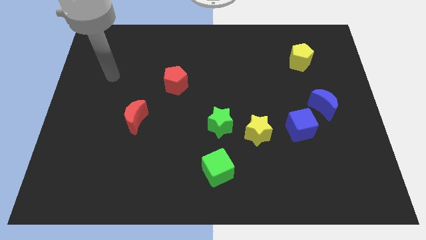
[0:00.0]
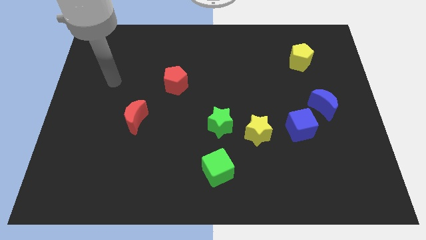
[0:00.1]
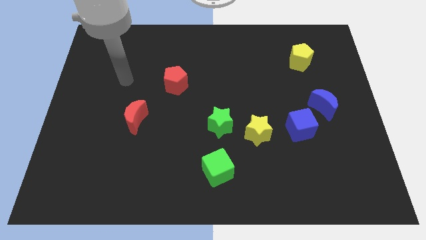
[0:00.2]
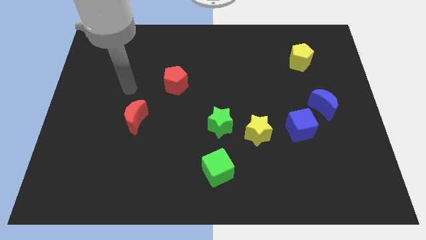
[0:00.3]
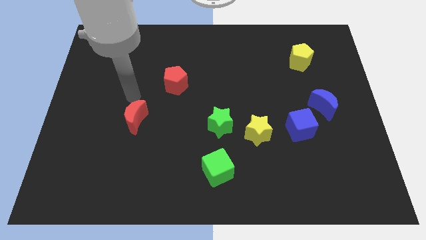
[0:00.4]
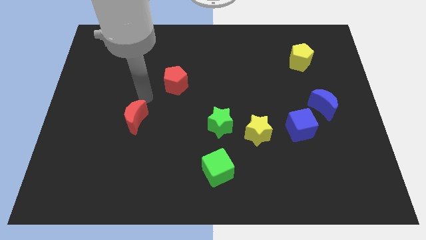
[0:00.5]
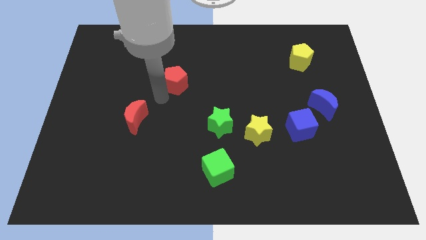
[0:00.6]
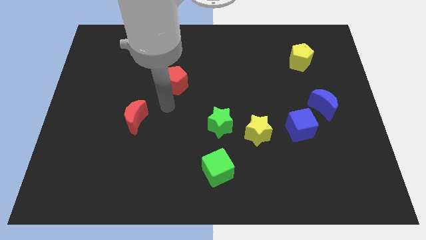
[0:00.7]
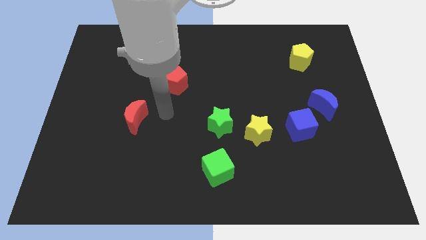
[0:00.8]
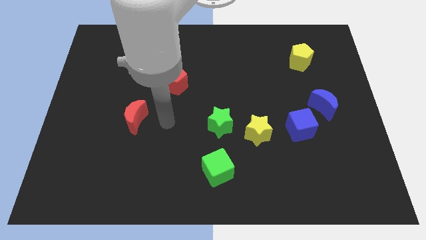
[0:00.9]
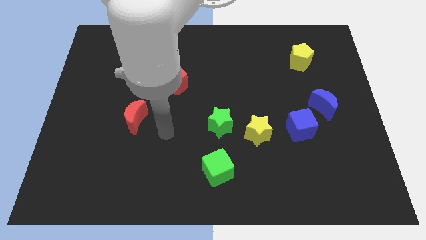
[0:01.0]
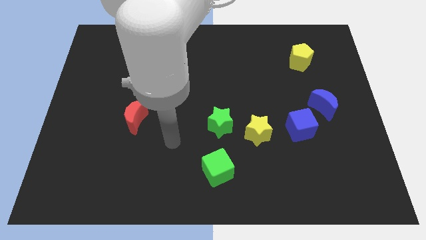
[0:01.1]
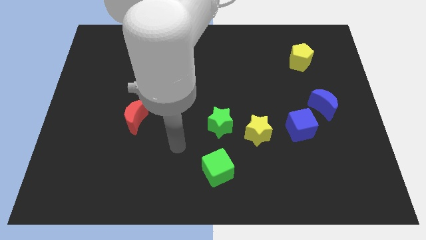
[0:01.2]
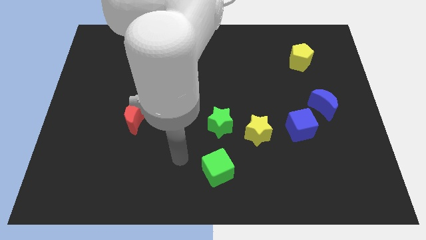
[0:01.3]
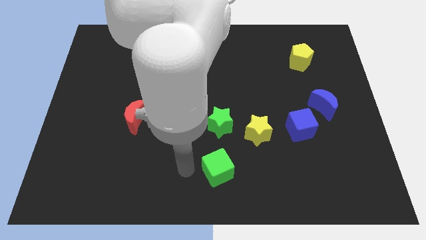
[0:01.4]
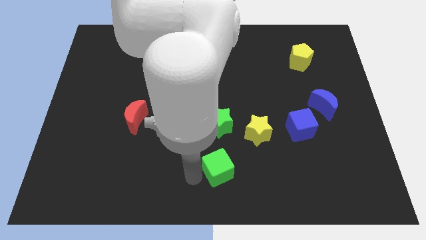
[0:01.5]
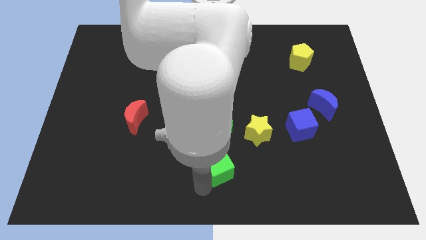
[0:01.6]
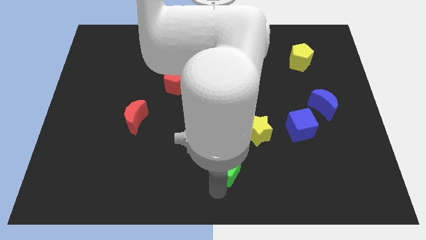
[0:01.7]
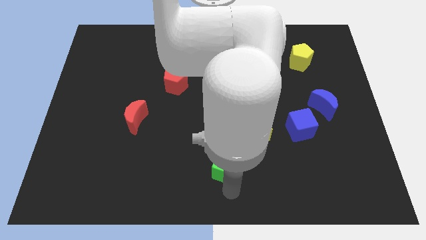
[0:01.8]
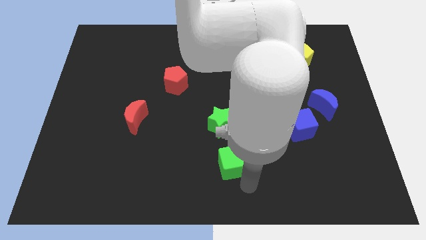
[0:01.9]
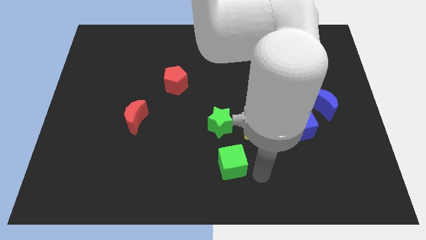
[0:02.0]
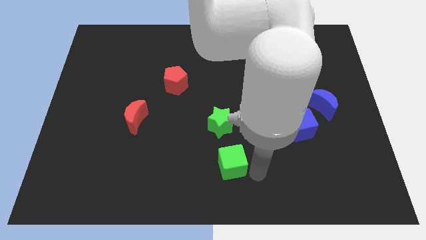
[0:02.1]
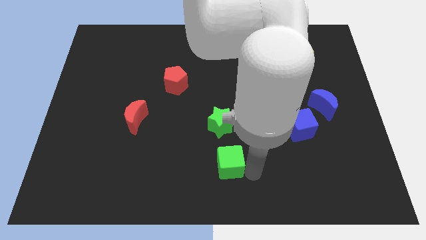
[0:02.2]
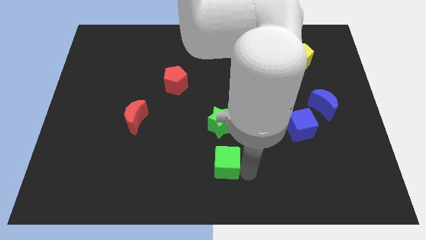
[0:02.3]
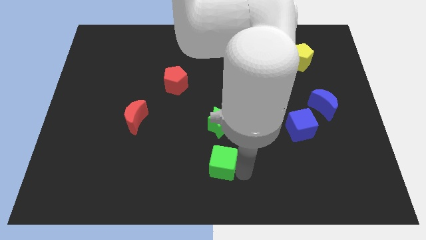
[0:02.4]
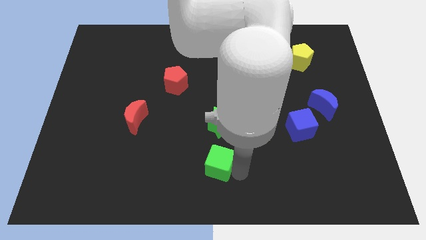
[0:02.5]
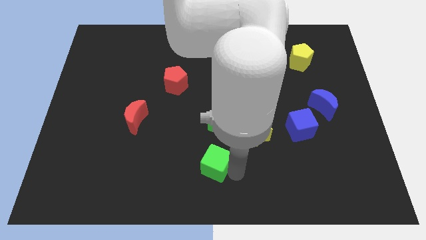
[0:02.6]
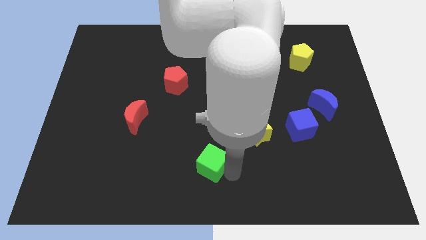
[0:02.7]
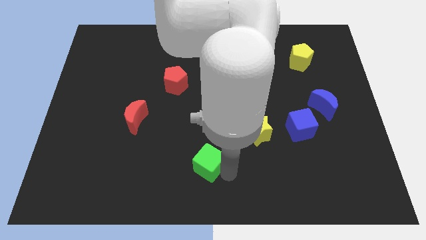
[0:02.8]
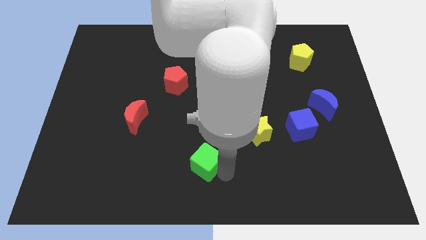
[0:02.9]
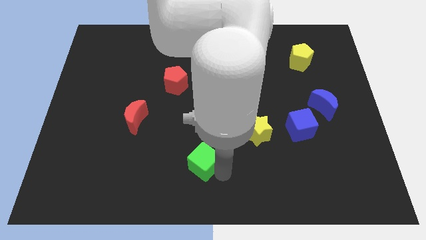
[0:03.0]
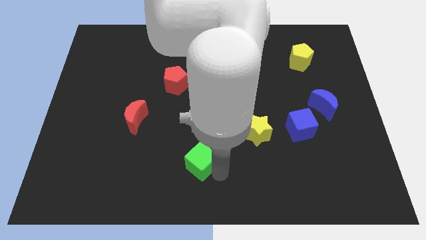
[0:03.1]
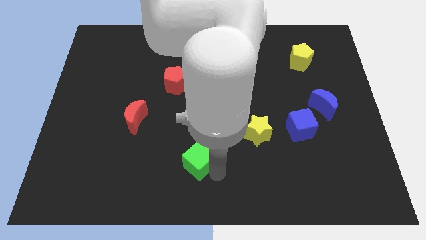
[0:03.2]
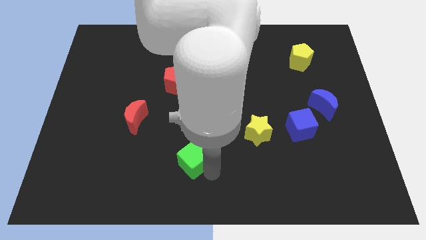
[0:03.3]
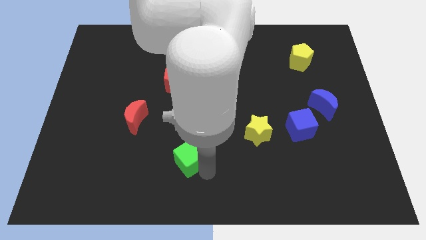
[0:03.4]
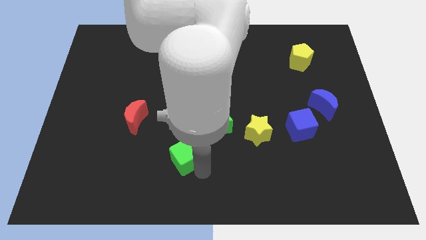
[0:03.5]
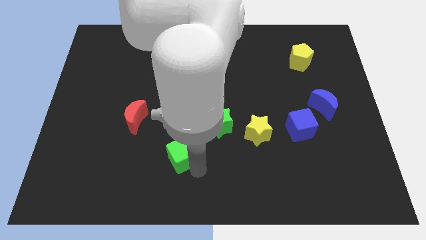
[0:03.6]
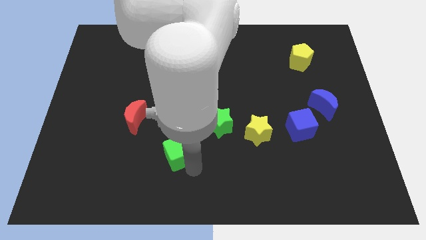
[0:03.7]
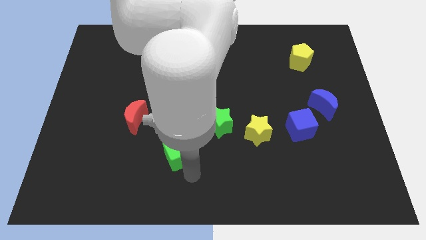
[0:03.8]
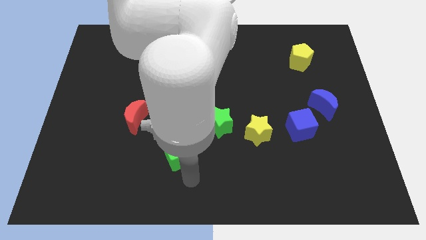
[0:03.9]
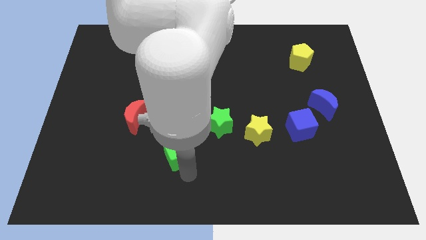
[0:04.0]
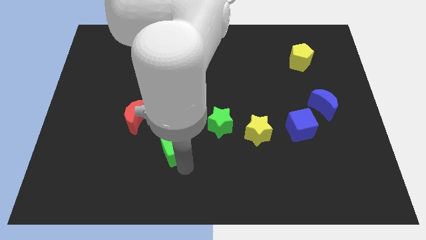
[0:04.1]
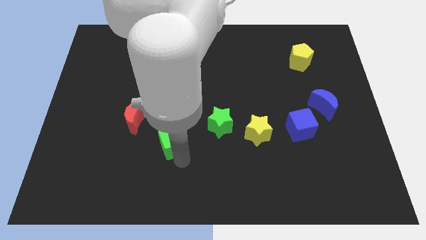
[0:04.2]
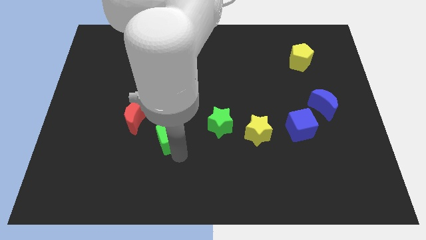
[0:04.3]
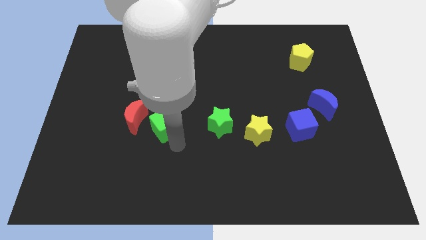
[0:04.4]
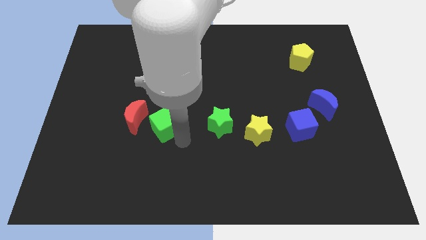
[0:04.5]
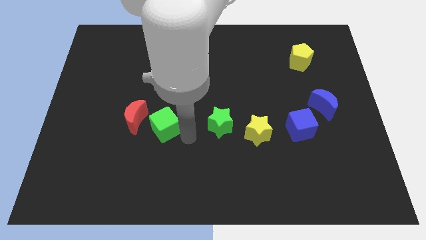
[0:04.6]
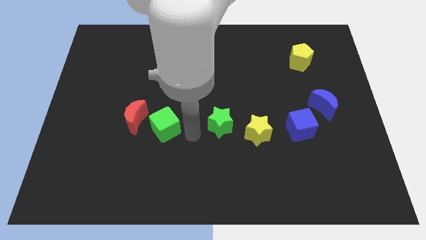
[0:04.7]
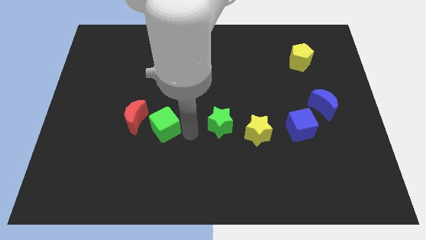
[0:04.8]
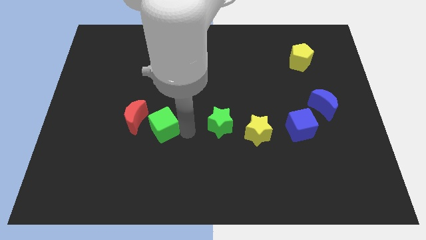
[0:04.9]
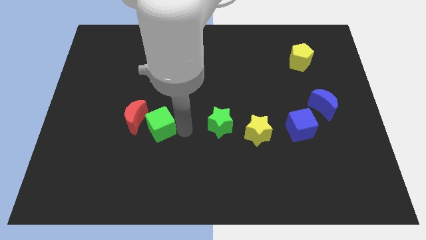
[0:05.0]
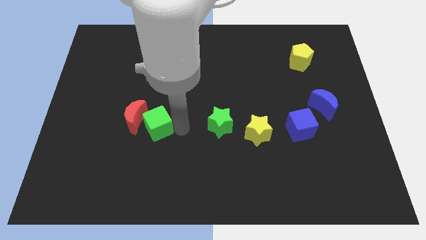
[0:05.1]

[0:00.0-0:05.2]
move the green cube close to the red moon

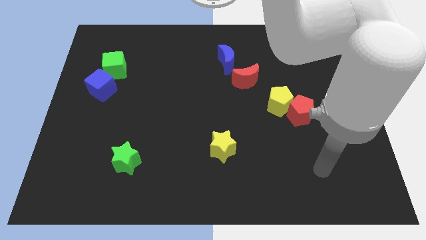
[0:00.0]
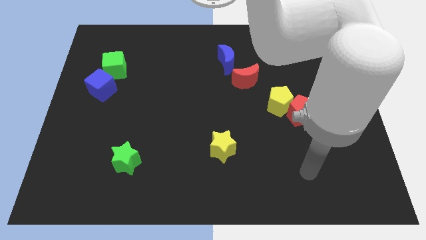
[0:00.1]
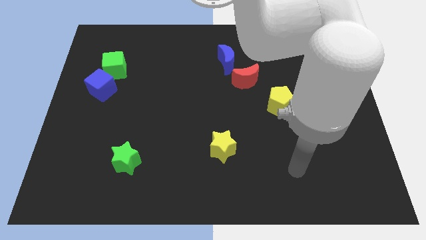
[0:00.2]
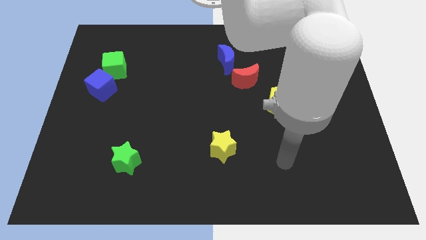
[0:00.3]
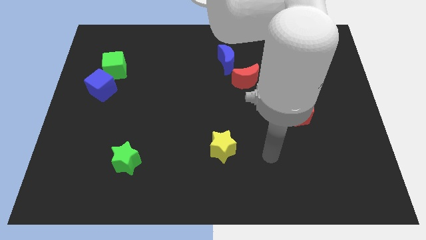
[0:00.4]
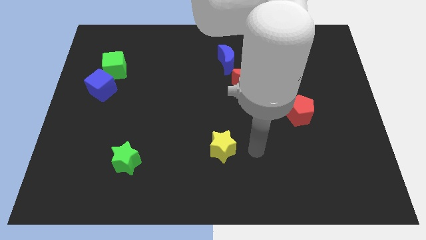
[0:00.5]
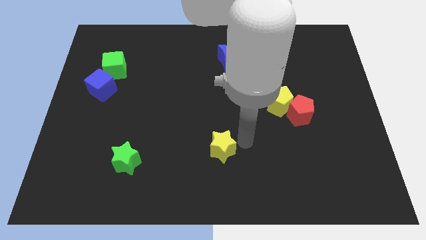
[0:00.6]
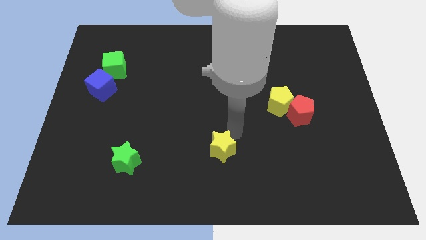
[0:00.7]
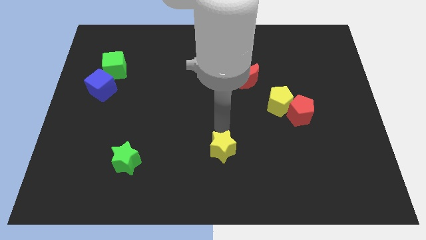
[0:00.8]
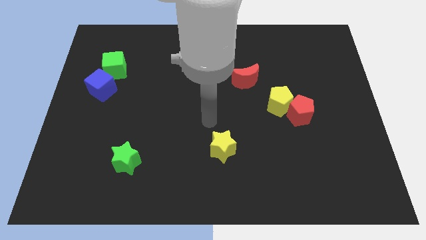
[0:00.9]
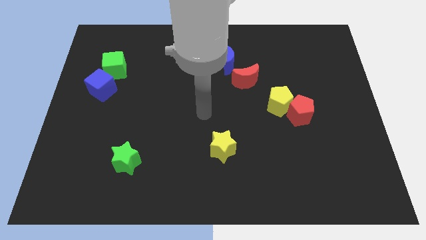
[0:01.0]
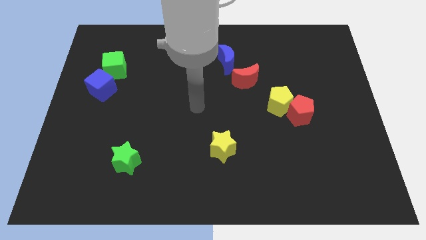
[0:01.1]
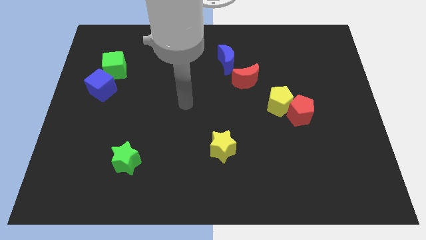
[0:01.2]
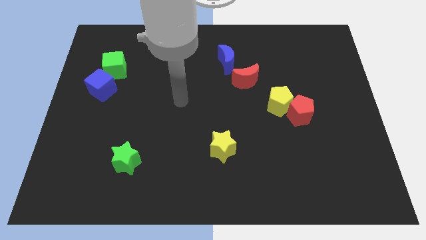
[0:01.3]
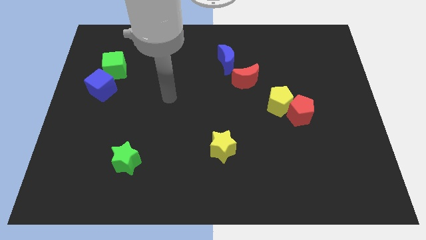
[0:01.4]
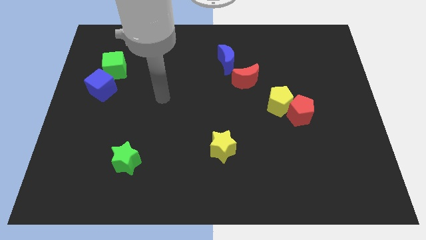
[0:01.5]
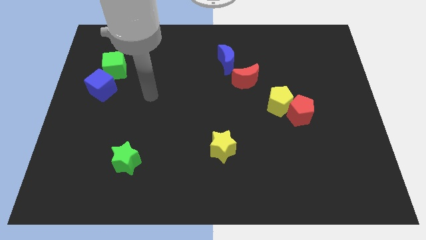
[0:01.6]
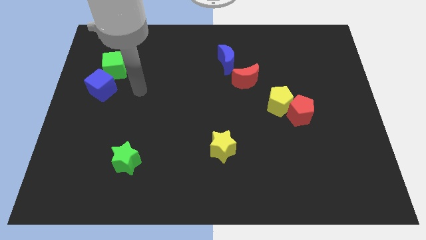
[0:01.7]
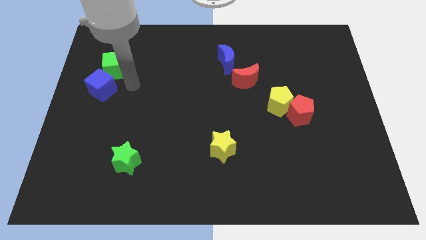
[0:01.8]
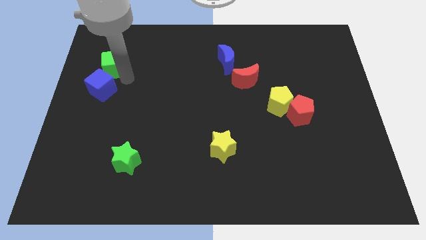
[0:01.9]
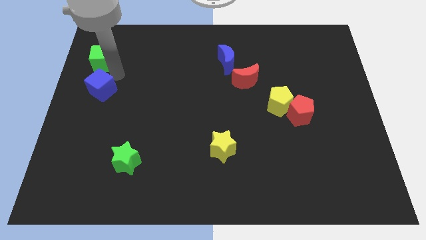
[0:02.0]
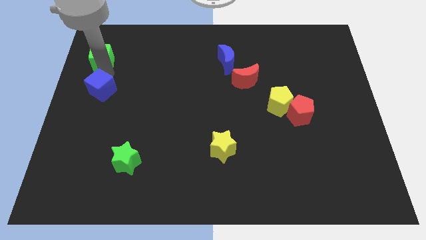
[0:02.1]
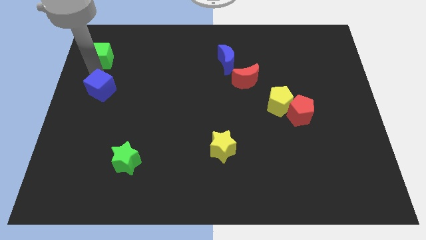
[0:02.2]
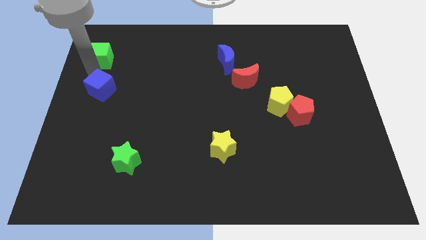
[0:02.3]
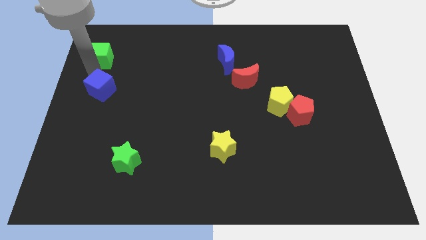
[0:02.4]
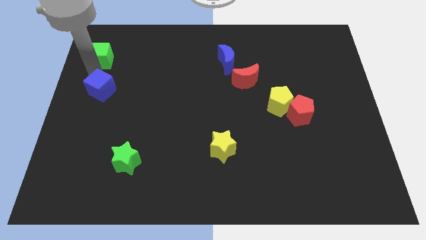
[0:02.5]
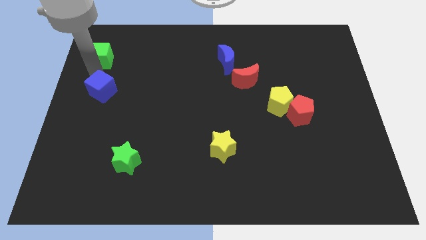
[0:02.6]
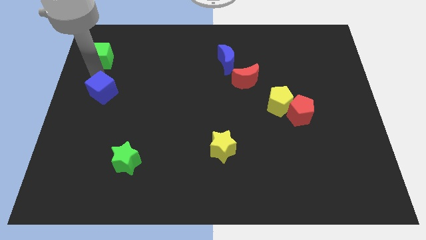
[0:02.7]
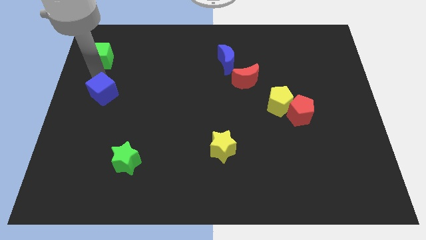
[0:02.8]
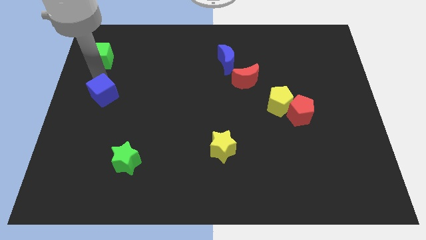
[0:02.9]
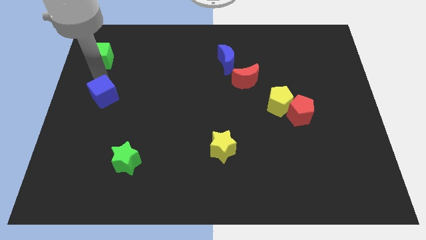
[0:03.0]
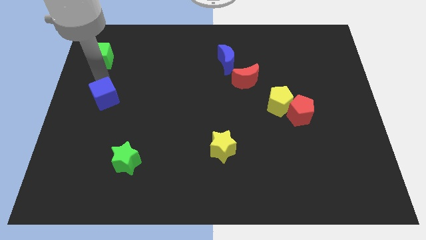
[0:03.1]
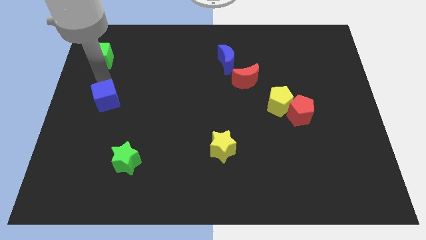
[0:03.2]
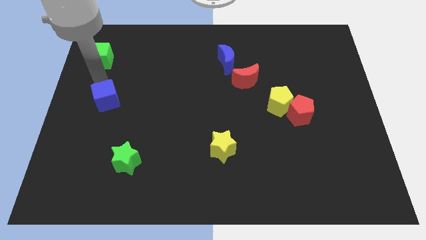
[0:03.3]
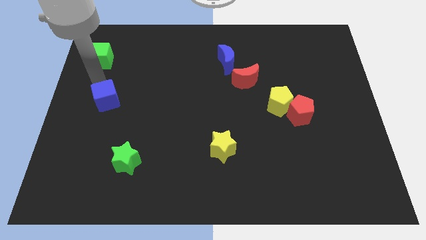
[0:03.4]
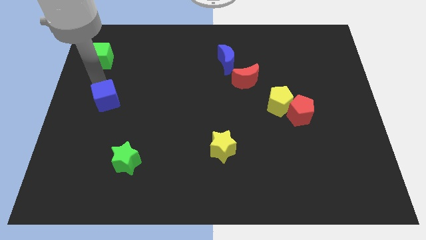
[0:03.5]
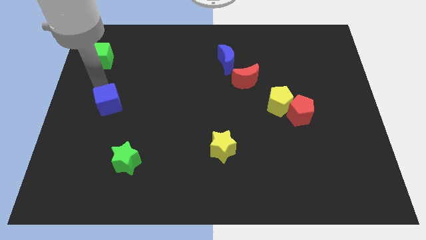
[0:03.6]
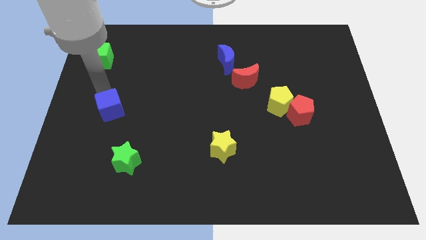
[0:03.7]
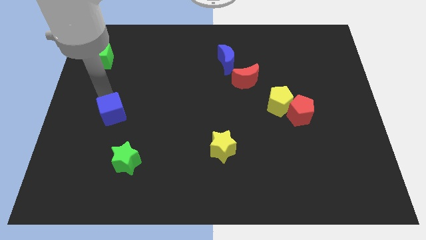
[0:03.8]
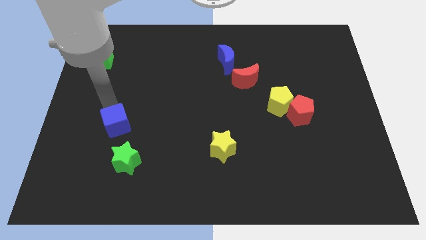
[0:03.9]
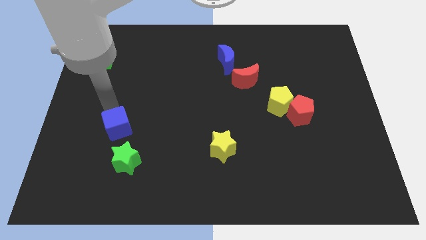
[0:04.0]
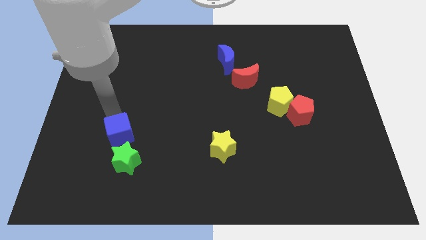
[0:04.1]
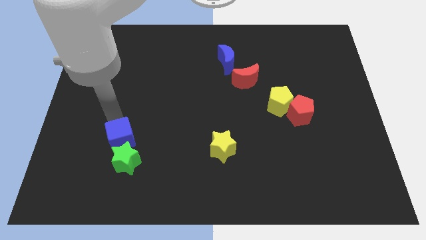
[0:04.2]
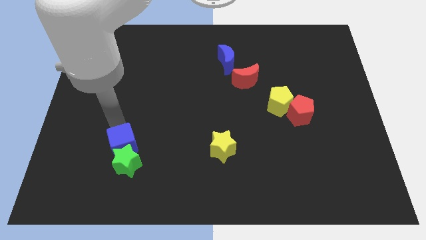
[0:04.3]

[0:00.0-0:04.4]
push the blue cube towards the green star
